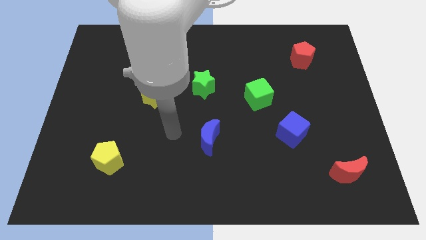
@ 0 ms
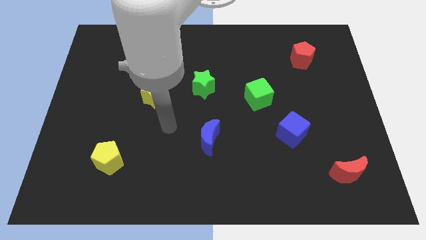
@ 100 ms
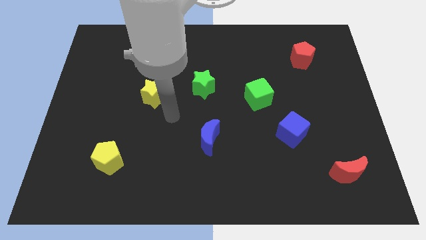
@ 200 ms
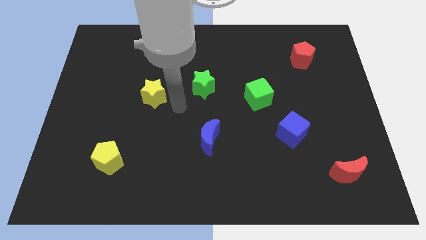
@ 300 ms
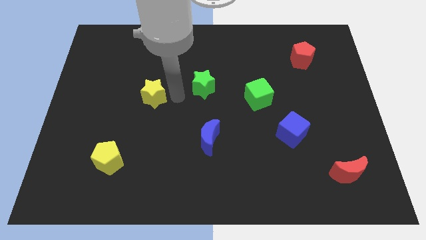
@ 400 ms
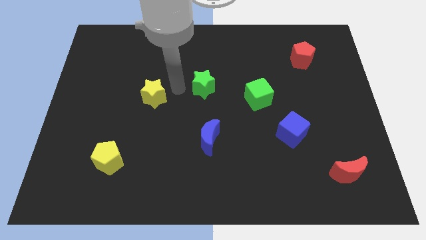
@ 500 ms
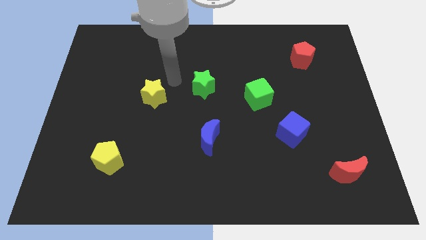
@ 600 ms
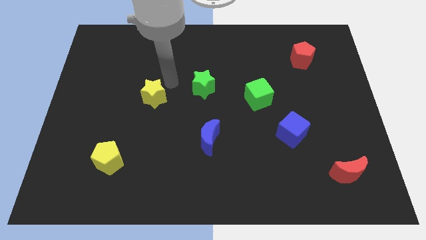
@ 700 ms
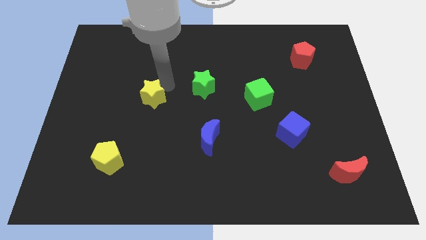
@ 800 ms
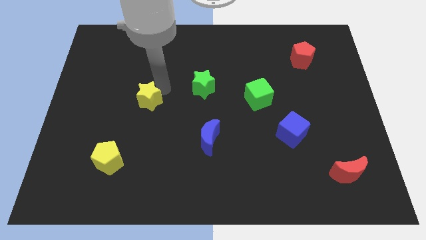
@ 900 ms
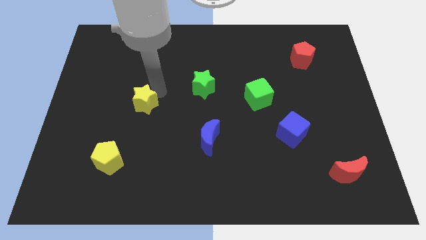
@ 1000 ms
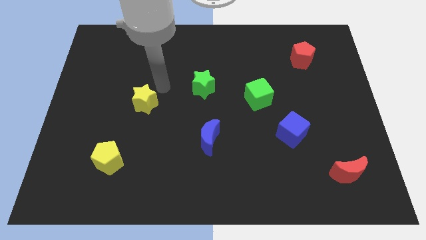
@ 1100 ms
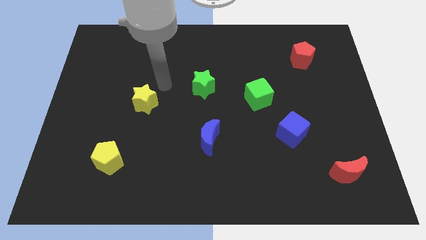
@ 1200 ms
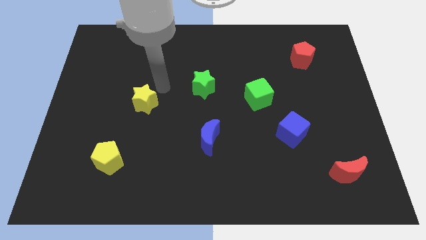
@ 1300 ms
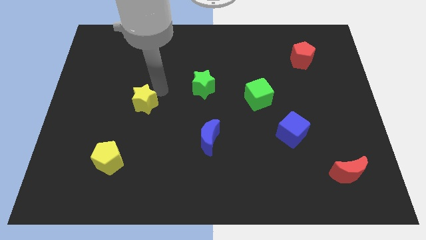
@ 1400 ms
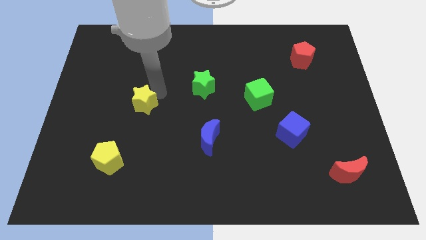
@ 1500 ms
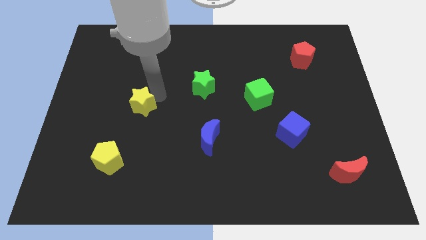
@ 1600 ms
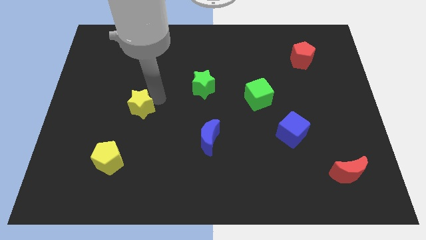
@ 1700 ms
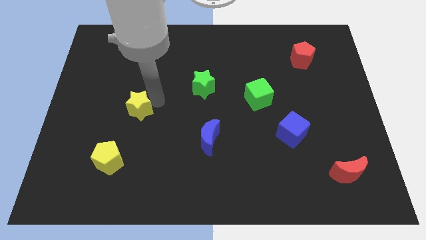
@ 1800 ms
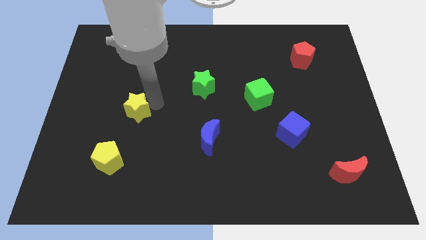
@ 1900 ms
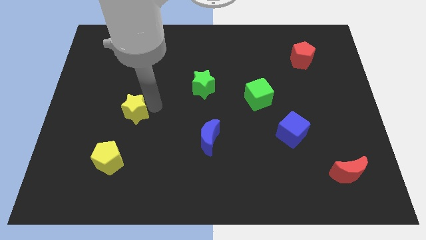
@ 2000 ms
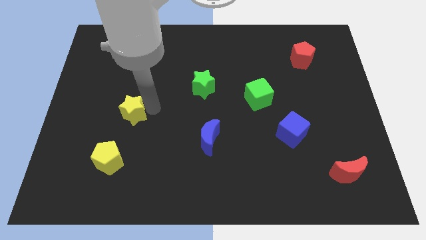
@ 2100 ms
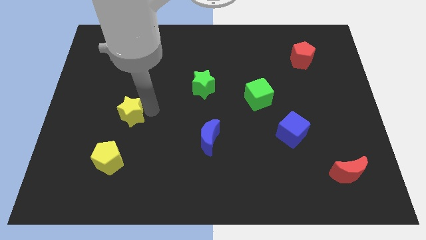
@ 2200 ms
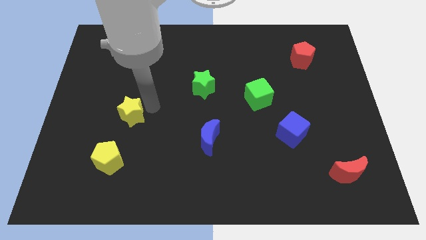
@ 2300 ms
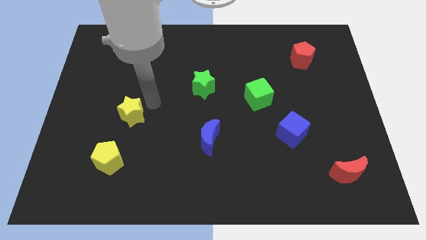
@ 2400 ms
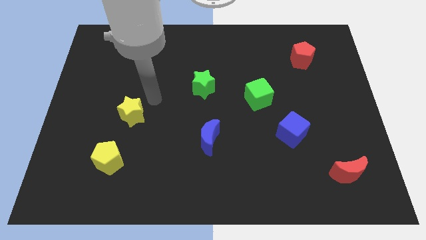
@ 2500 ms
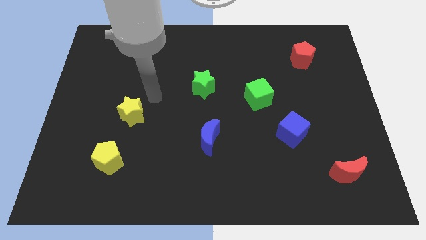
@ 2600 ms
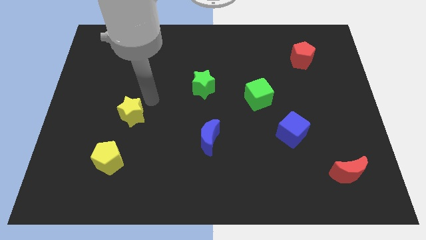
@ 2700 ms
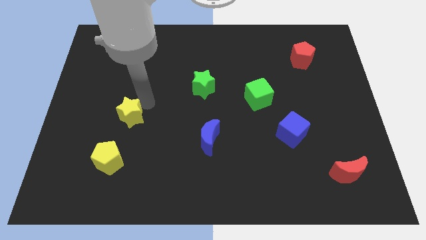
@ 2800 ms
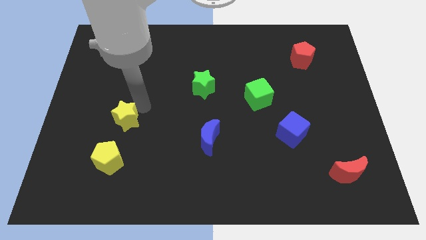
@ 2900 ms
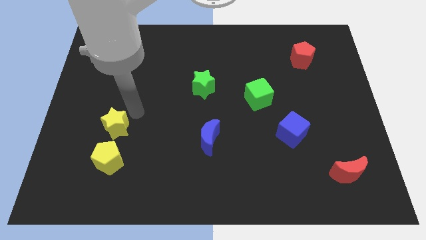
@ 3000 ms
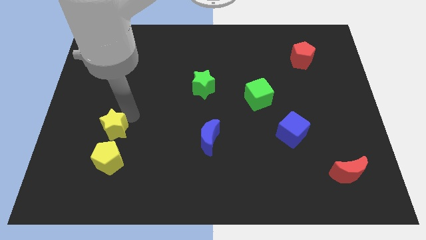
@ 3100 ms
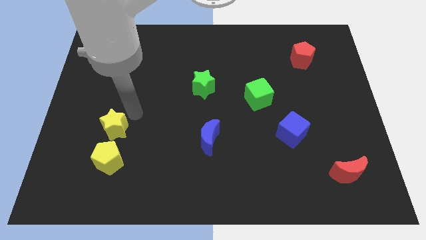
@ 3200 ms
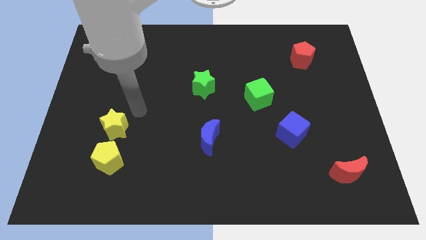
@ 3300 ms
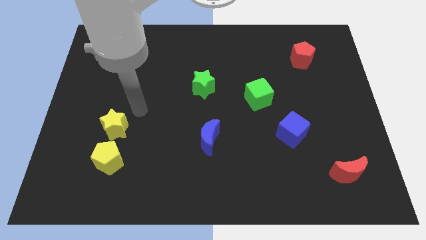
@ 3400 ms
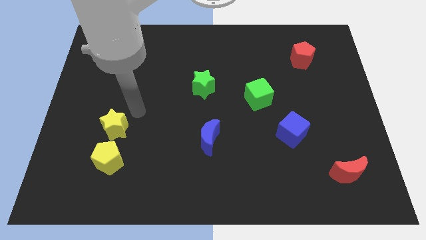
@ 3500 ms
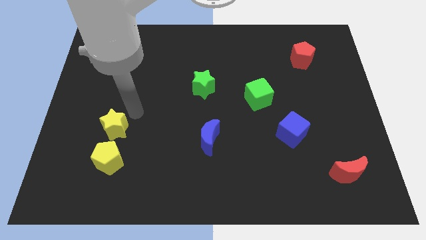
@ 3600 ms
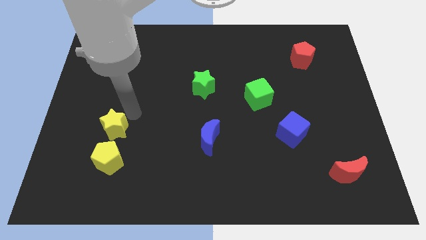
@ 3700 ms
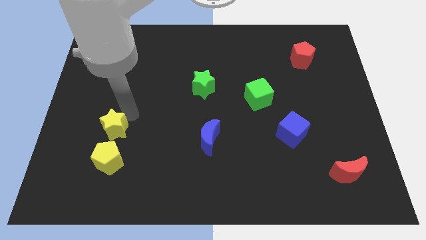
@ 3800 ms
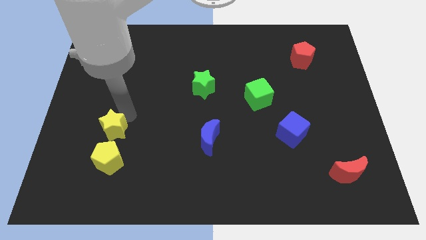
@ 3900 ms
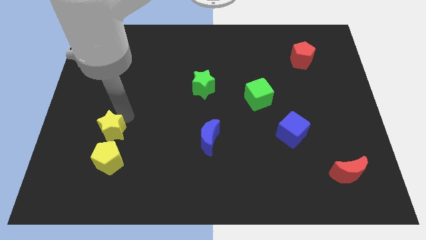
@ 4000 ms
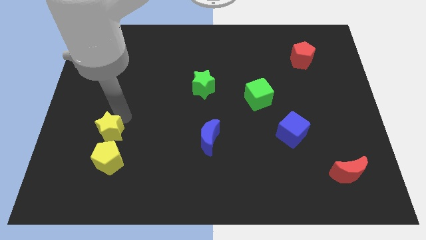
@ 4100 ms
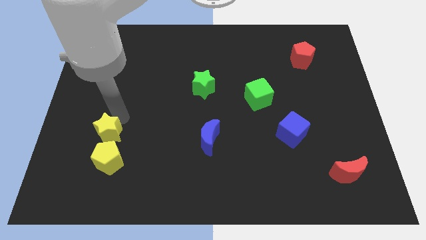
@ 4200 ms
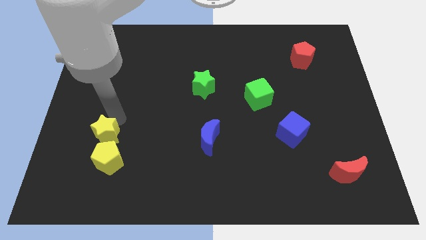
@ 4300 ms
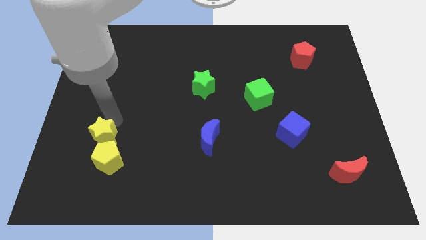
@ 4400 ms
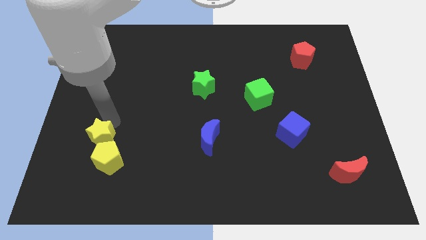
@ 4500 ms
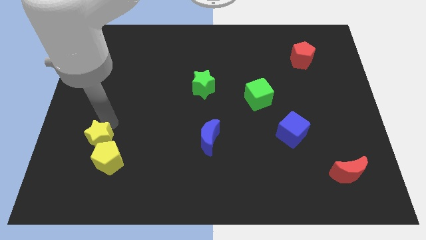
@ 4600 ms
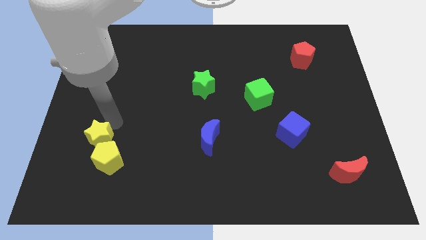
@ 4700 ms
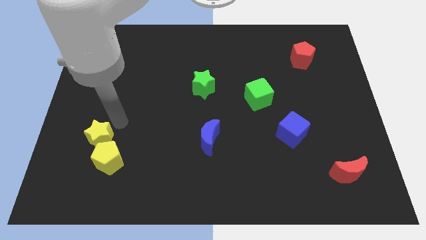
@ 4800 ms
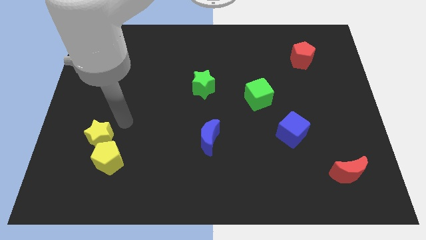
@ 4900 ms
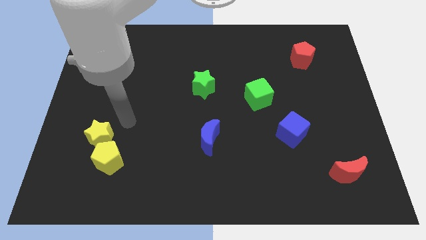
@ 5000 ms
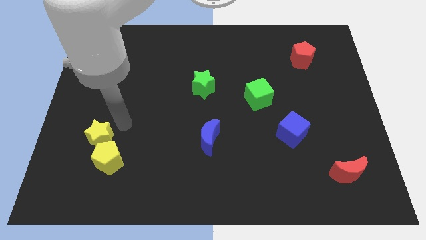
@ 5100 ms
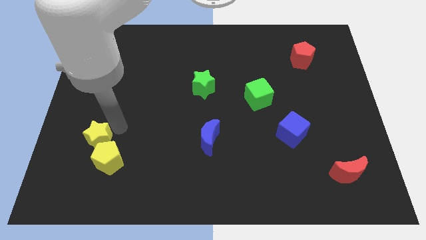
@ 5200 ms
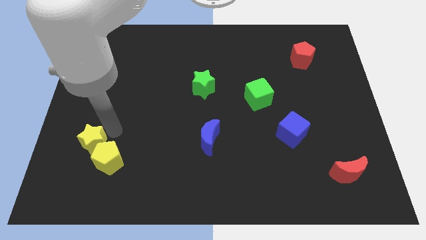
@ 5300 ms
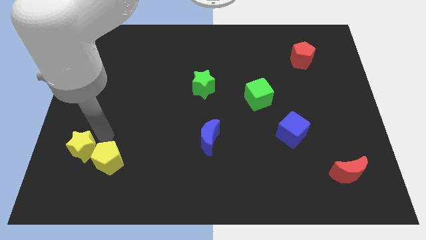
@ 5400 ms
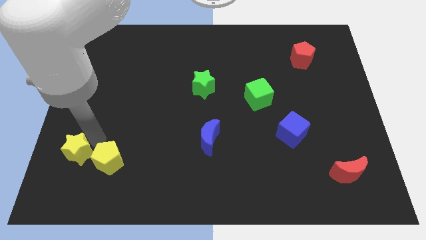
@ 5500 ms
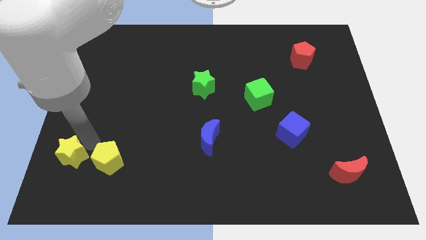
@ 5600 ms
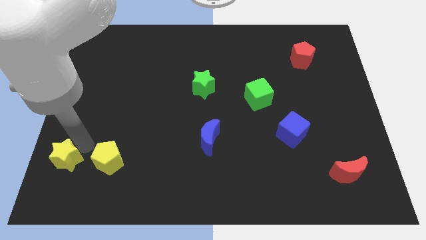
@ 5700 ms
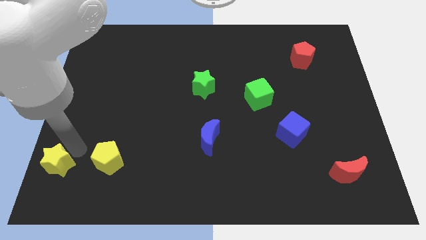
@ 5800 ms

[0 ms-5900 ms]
put the yellow star to the lower left corner
